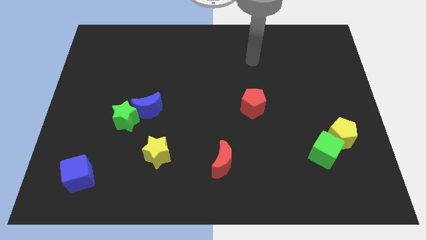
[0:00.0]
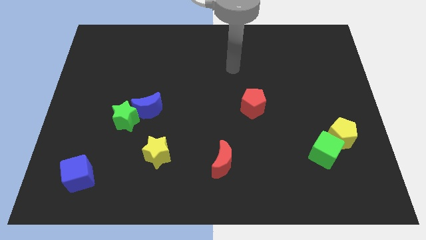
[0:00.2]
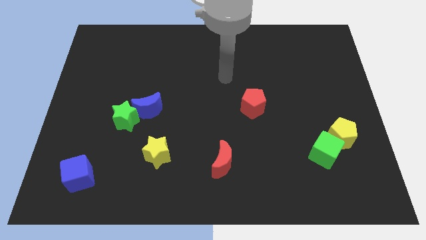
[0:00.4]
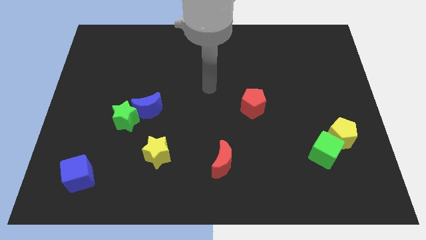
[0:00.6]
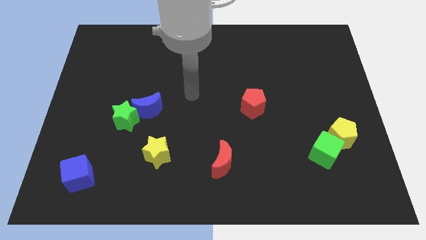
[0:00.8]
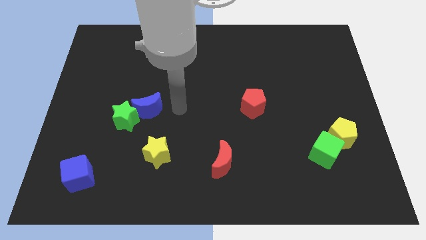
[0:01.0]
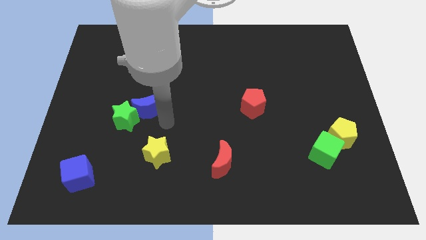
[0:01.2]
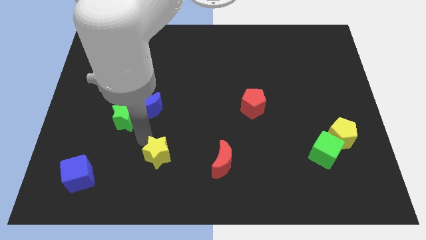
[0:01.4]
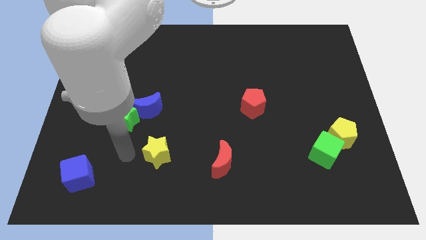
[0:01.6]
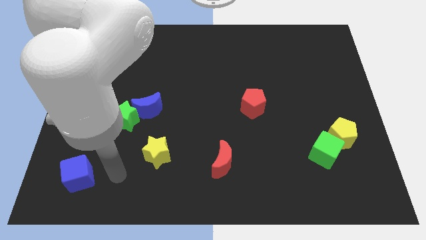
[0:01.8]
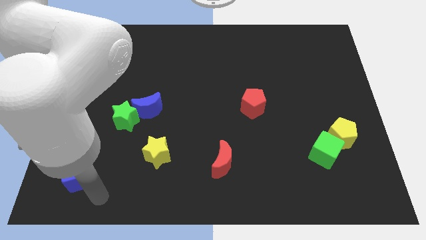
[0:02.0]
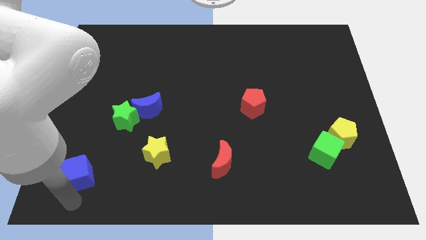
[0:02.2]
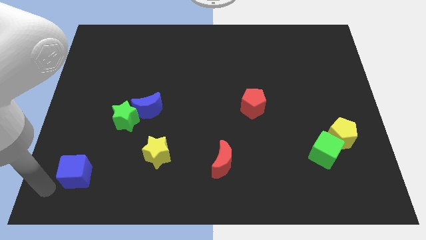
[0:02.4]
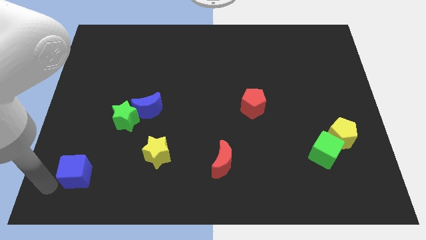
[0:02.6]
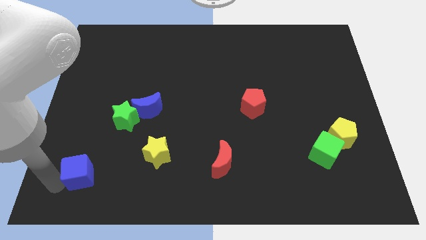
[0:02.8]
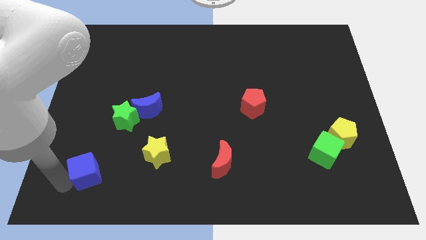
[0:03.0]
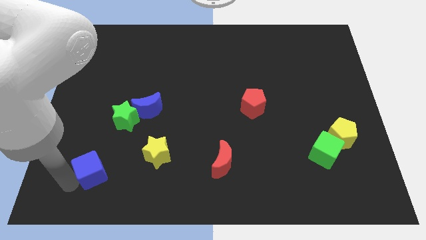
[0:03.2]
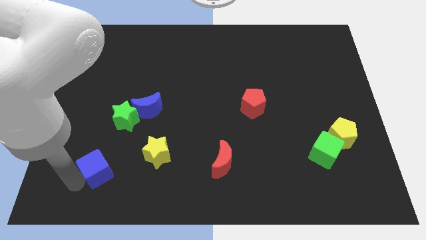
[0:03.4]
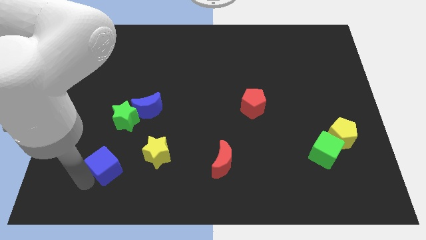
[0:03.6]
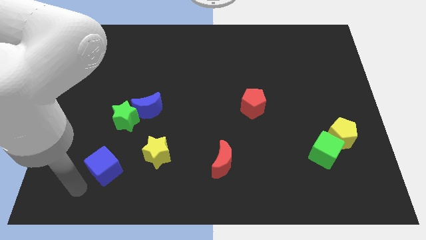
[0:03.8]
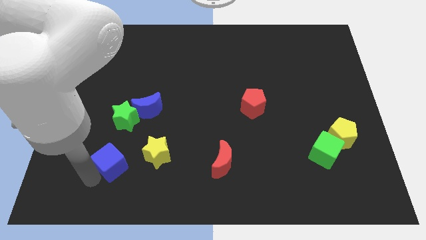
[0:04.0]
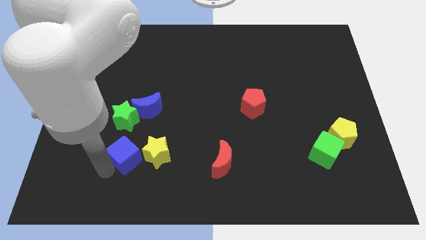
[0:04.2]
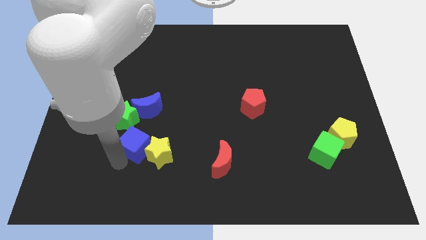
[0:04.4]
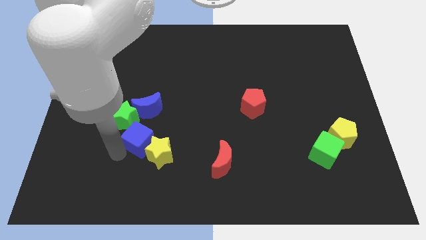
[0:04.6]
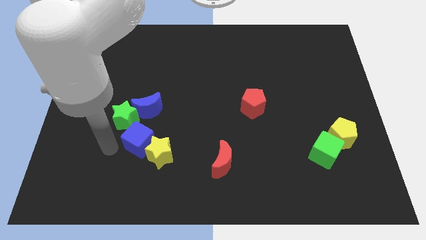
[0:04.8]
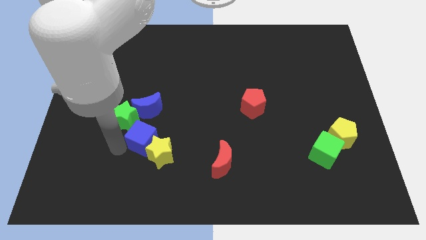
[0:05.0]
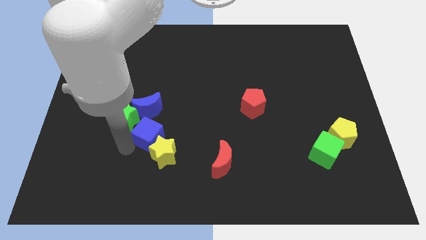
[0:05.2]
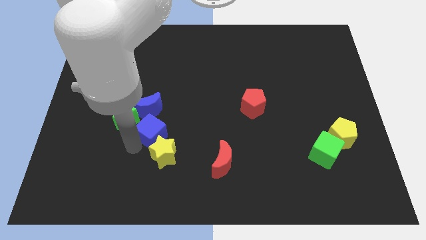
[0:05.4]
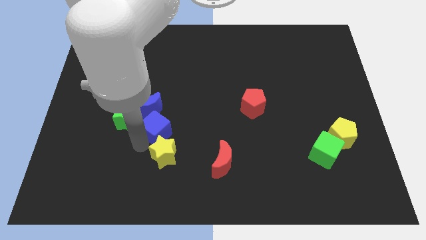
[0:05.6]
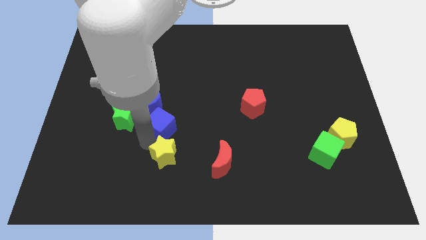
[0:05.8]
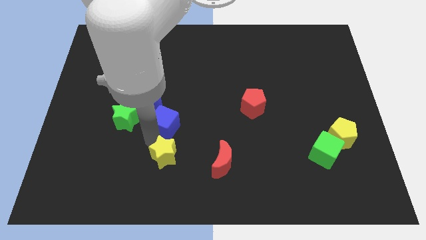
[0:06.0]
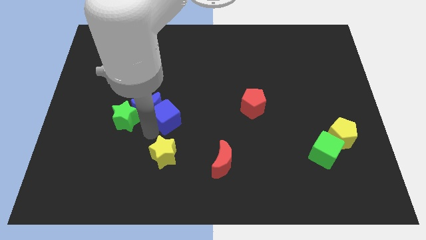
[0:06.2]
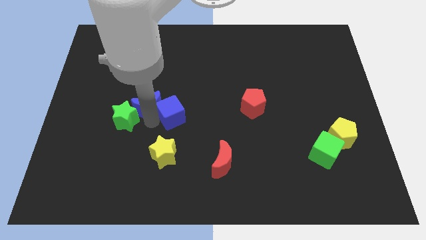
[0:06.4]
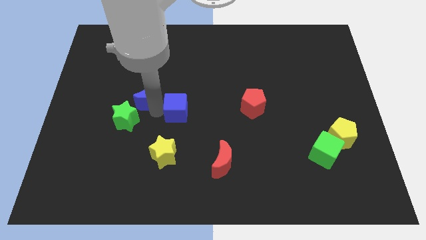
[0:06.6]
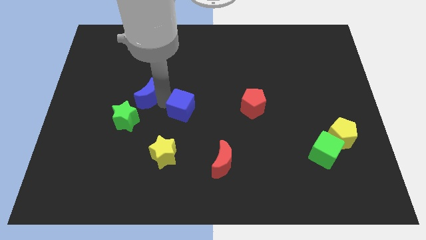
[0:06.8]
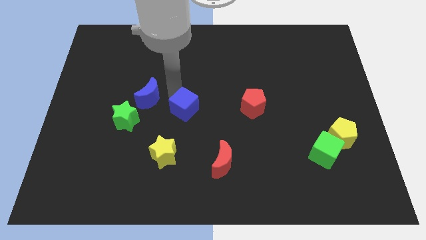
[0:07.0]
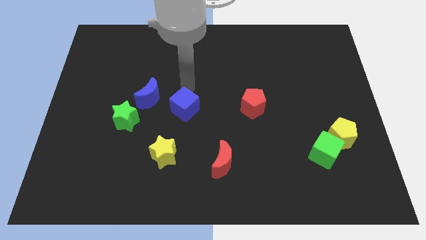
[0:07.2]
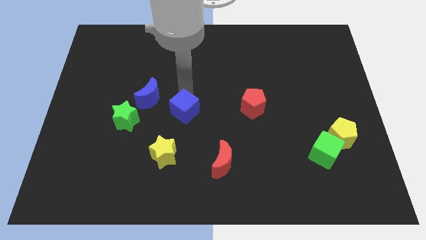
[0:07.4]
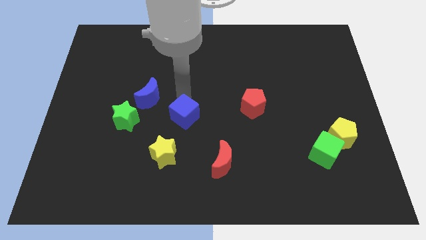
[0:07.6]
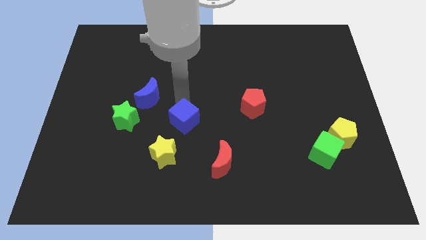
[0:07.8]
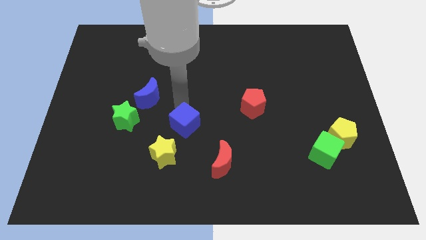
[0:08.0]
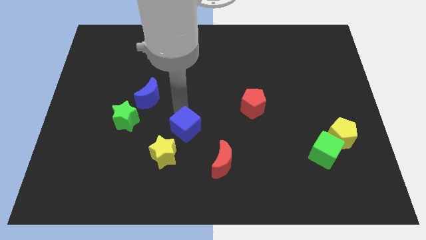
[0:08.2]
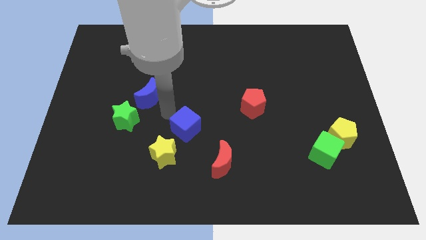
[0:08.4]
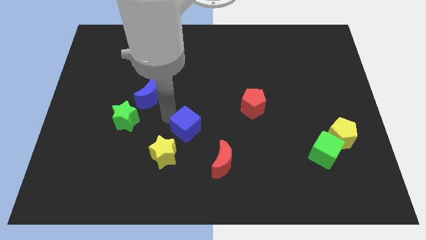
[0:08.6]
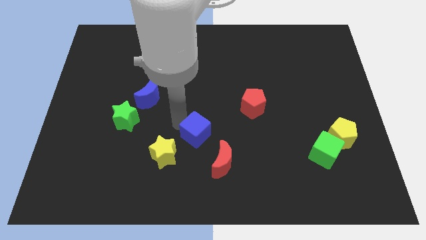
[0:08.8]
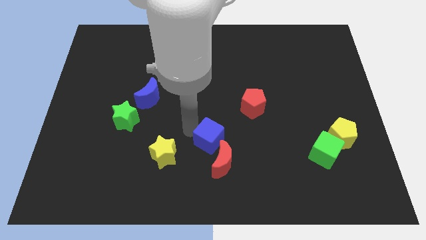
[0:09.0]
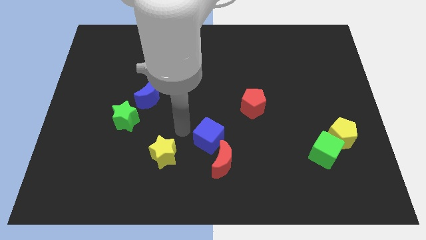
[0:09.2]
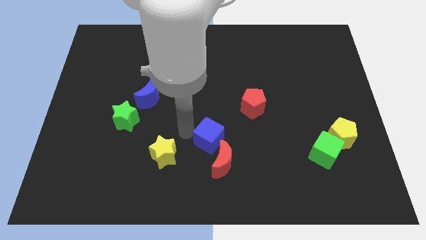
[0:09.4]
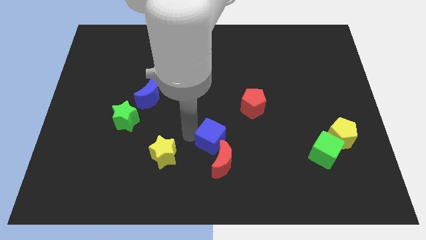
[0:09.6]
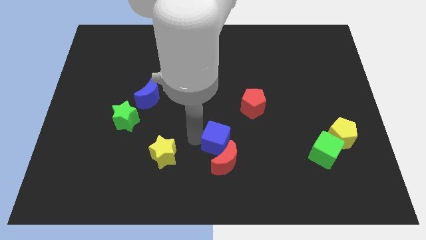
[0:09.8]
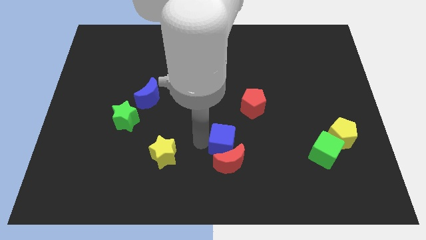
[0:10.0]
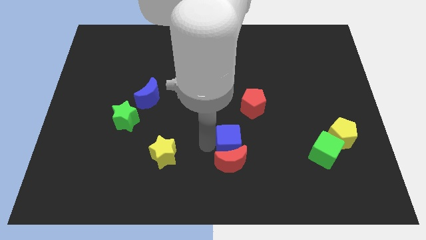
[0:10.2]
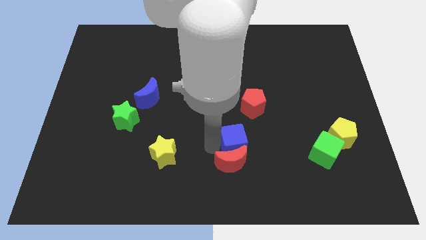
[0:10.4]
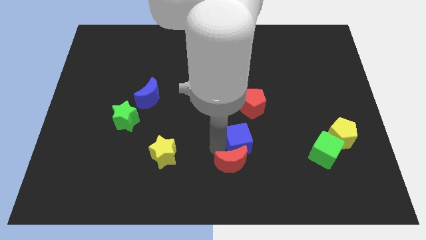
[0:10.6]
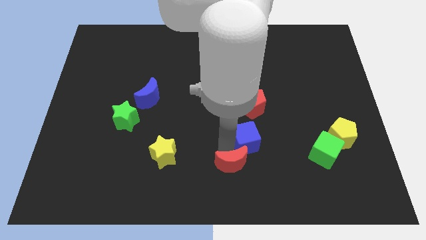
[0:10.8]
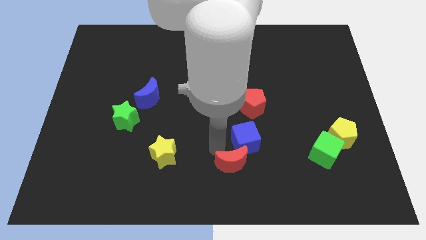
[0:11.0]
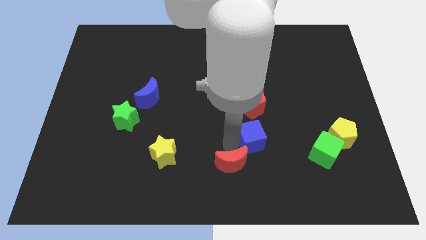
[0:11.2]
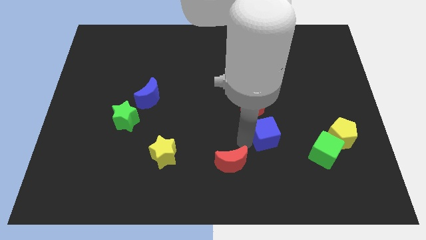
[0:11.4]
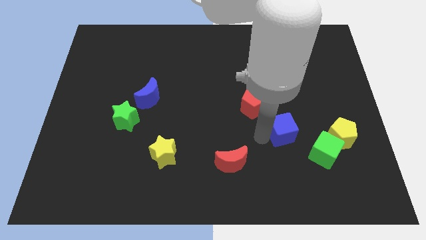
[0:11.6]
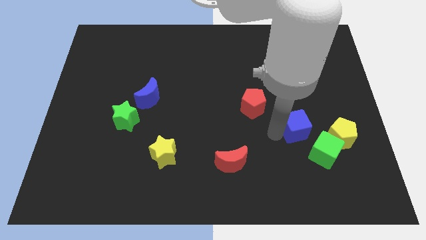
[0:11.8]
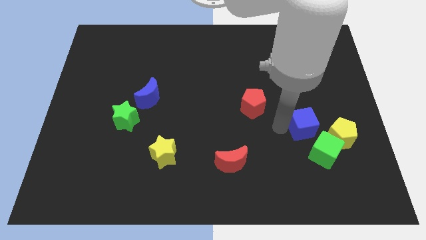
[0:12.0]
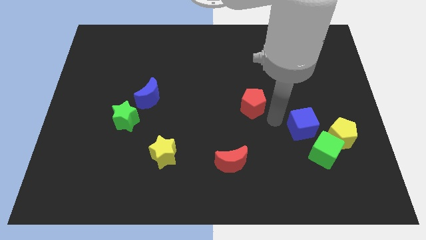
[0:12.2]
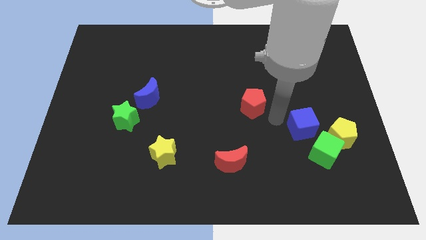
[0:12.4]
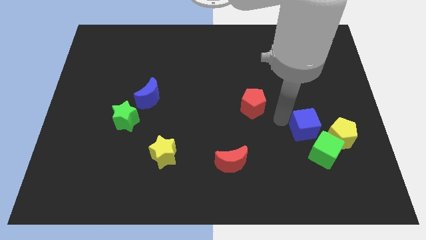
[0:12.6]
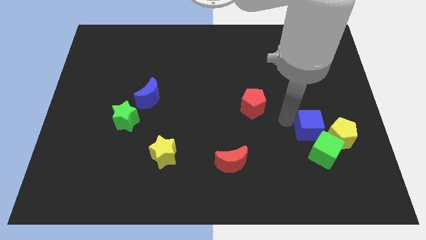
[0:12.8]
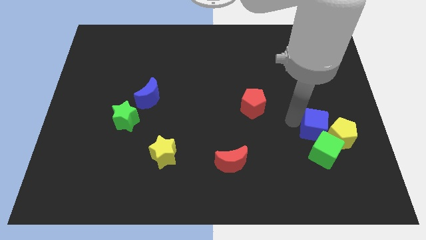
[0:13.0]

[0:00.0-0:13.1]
move the blue cube to the yellow pentagon
